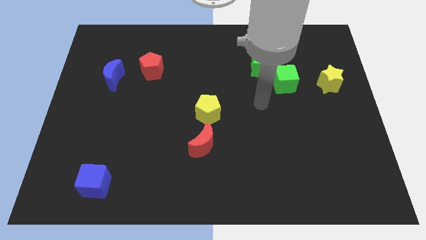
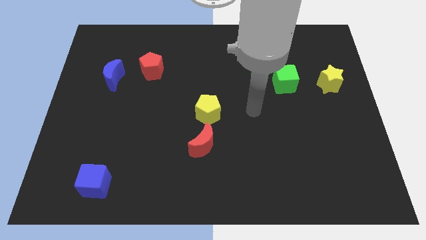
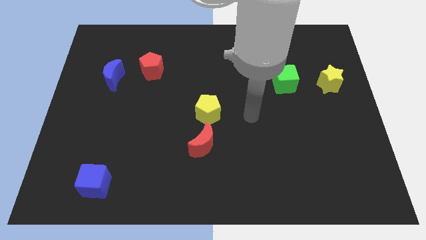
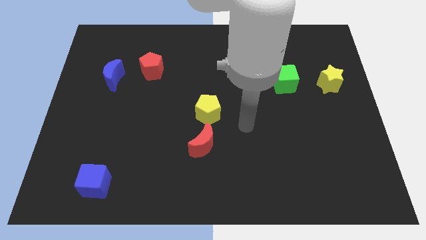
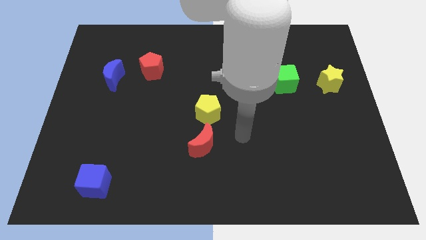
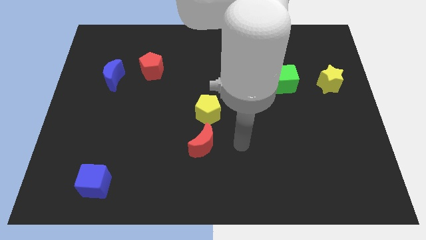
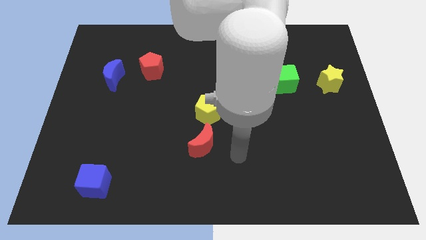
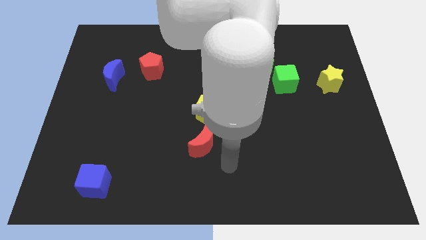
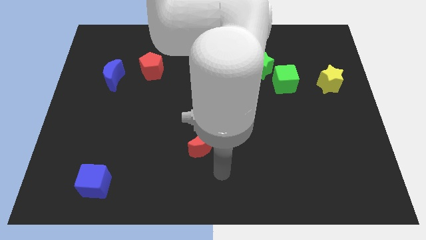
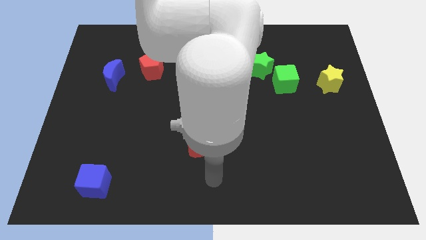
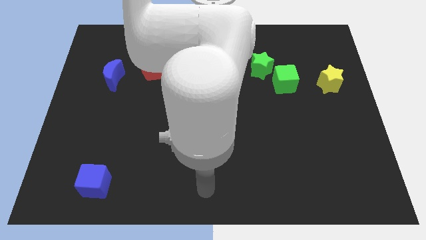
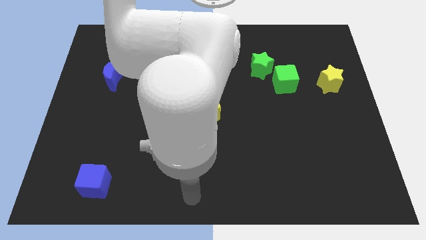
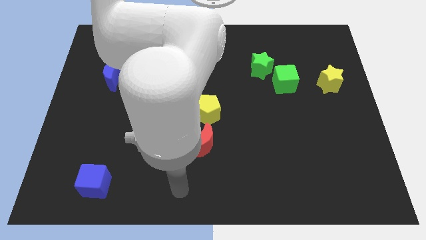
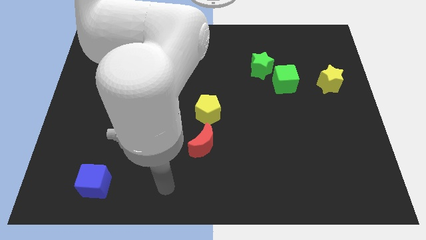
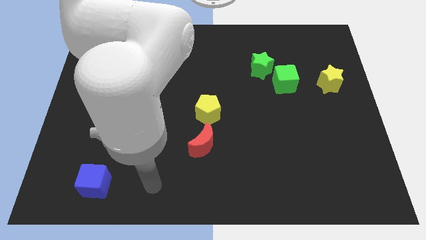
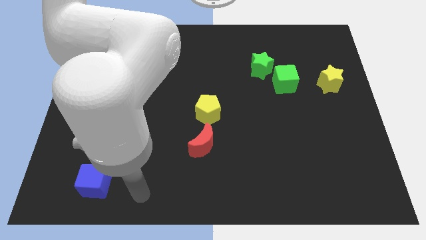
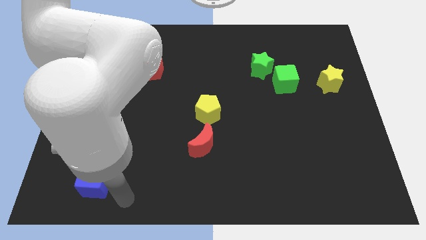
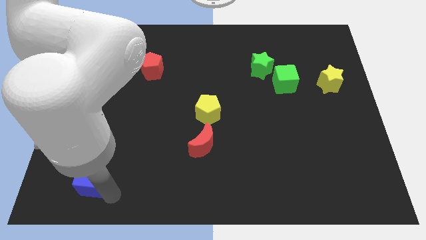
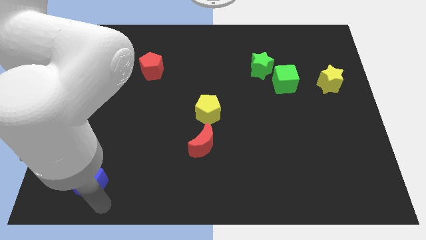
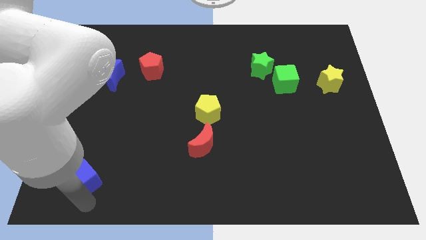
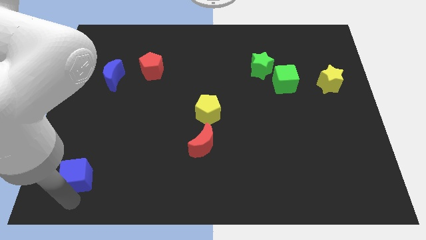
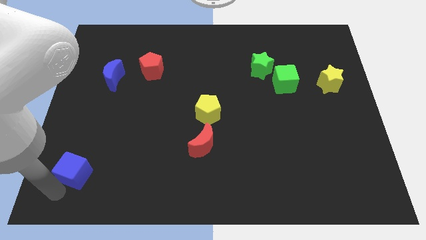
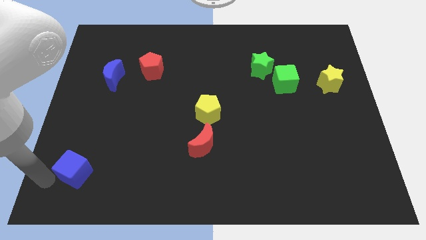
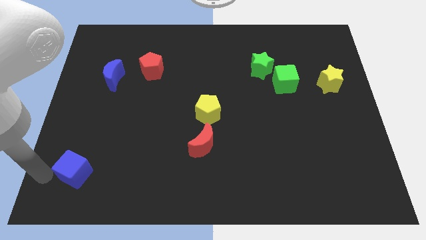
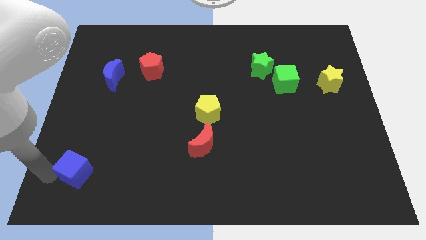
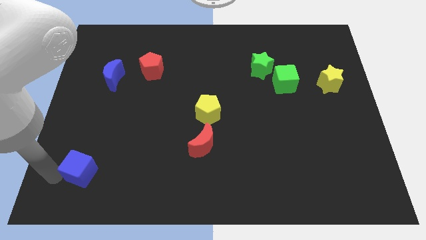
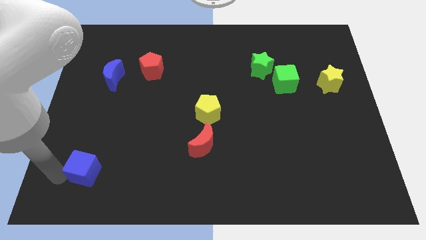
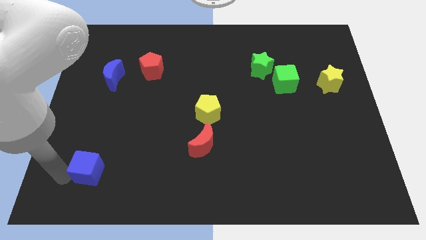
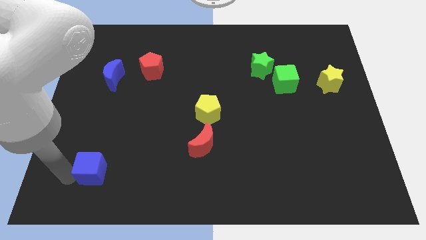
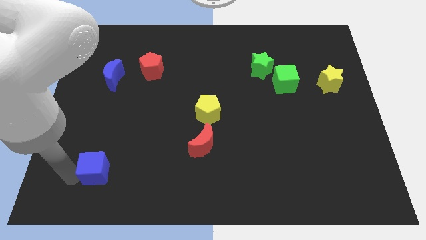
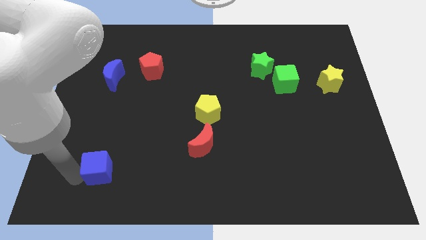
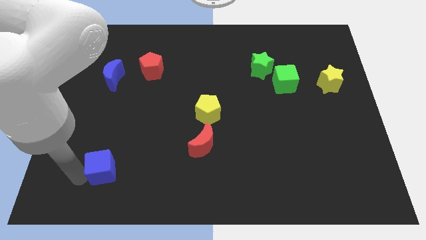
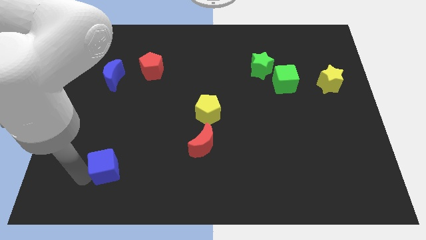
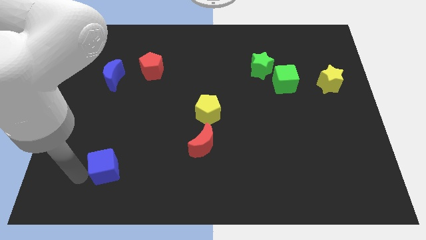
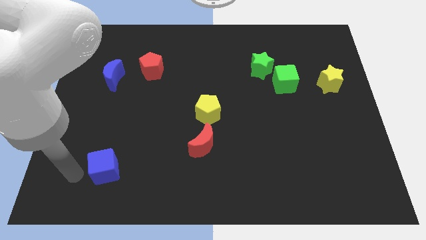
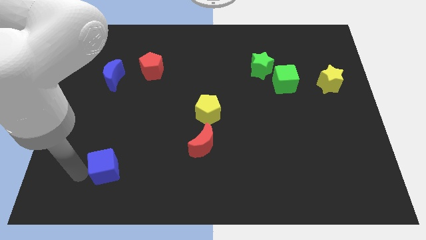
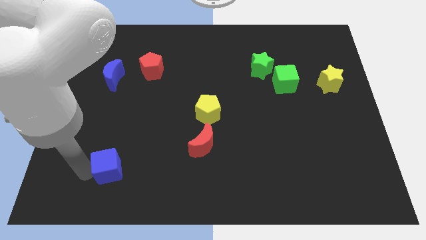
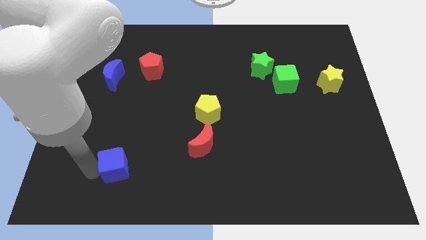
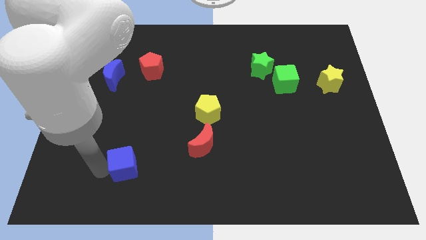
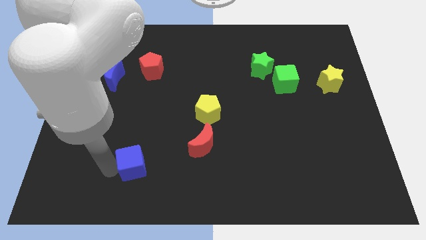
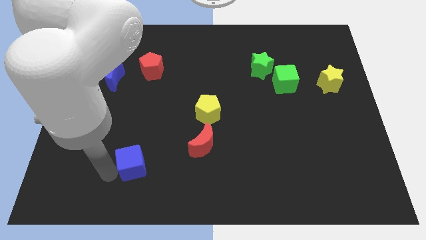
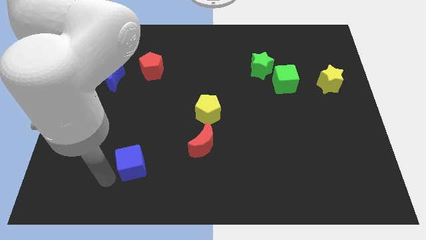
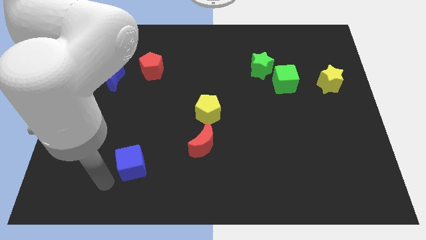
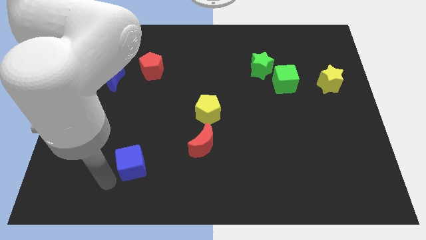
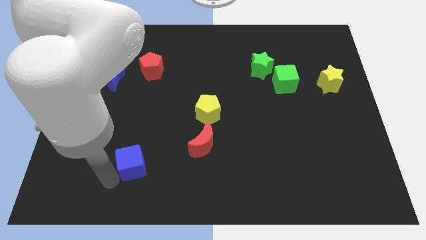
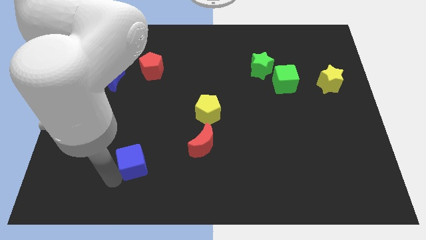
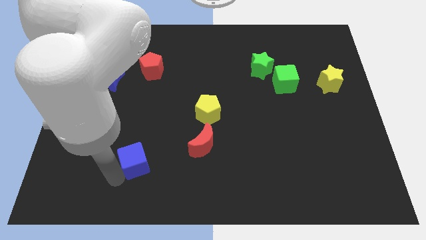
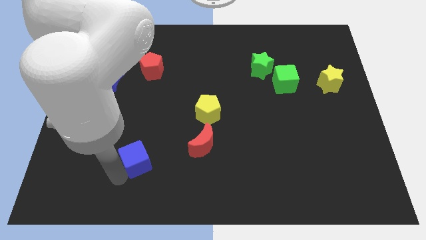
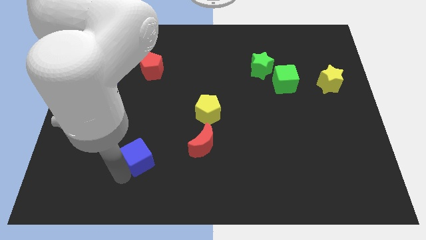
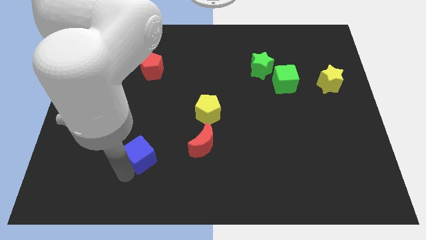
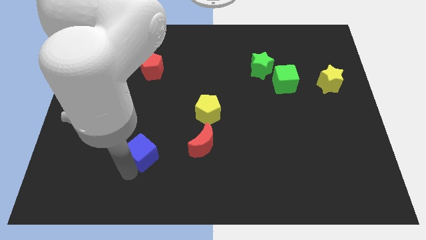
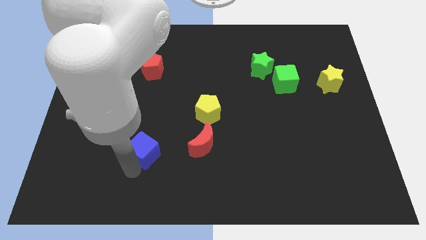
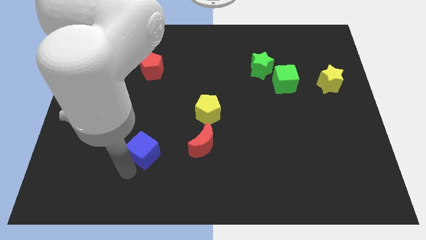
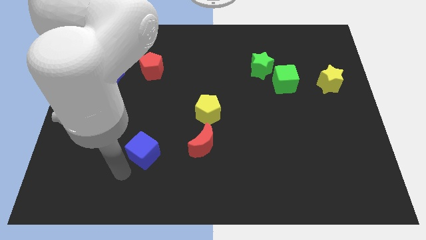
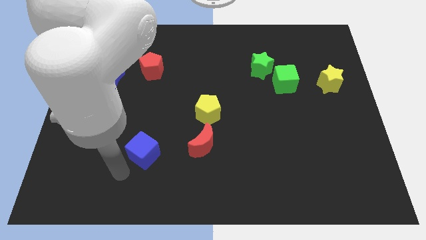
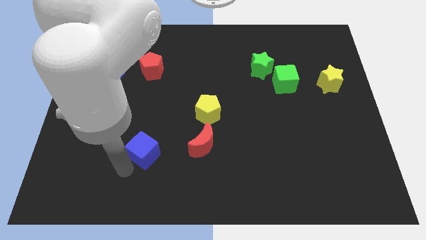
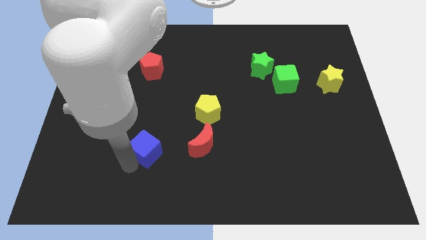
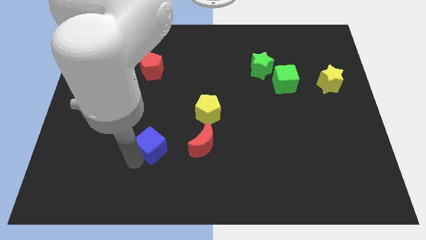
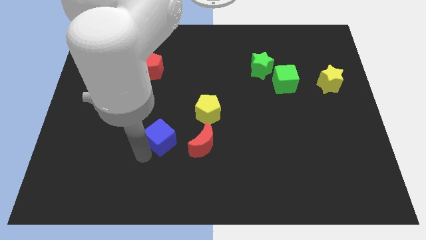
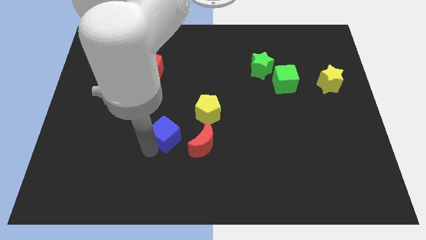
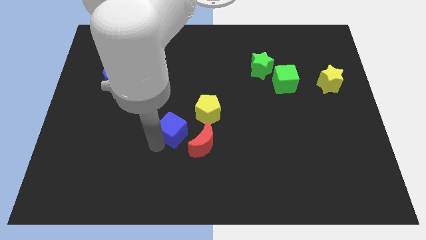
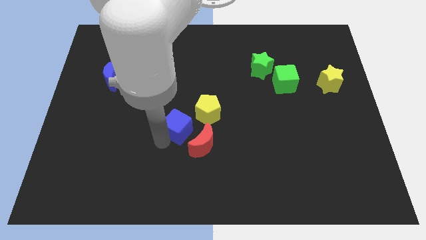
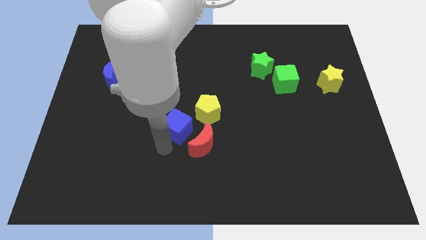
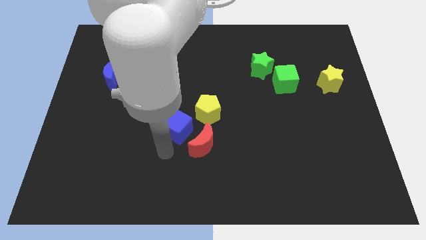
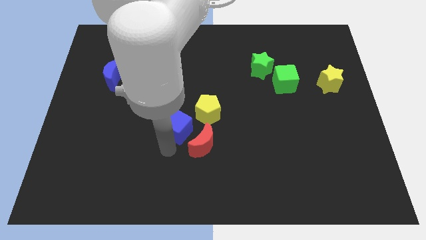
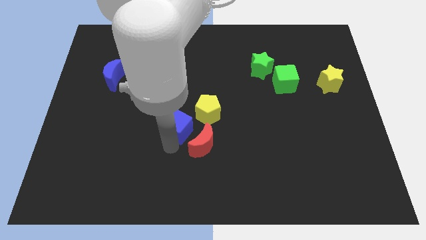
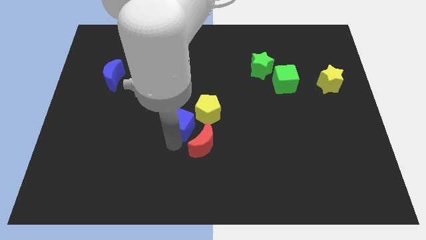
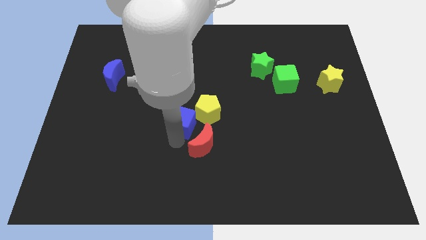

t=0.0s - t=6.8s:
put the blue cube to the top side of the red moon
